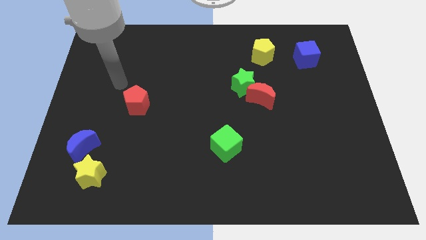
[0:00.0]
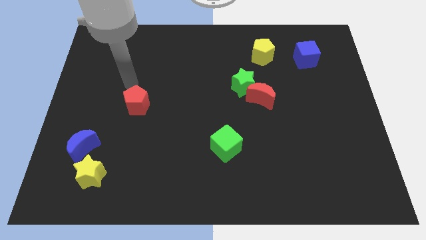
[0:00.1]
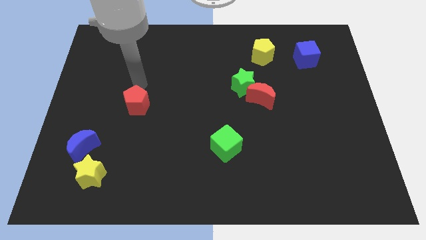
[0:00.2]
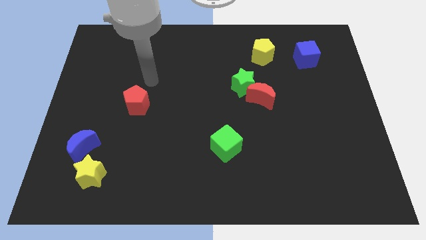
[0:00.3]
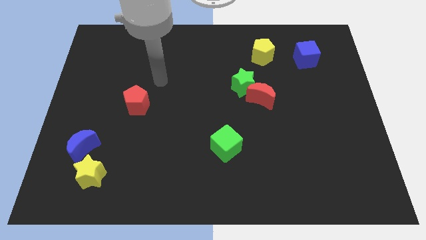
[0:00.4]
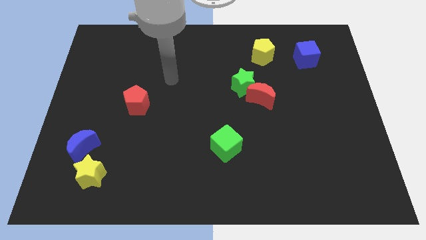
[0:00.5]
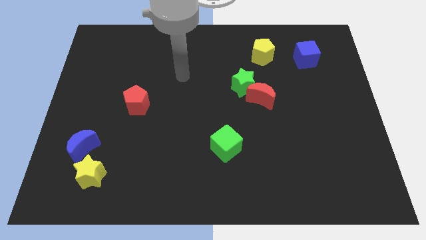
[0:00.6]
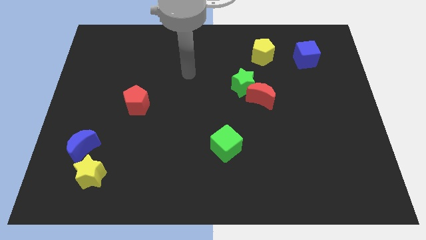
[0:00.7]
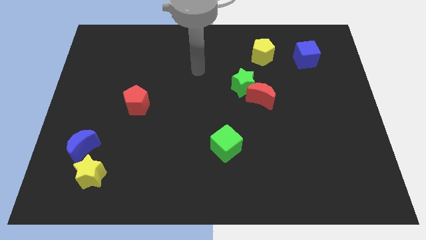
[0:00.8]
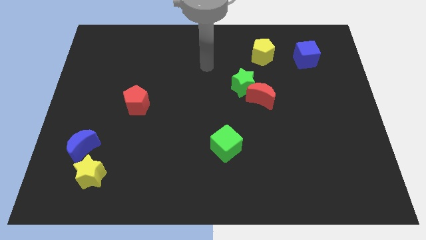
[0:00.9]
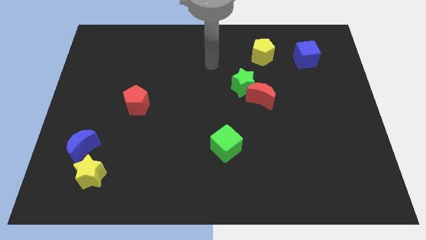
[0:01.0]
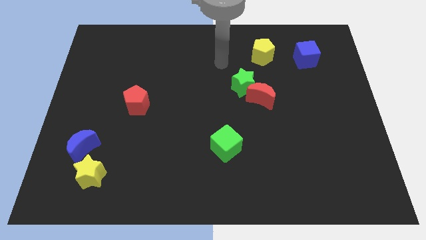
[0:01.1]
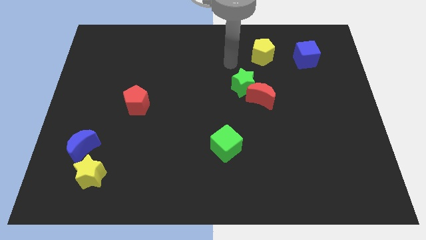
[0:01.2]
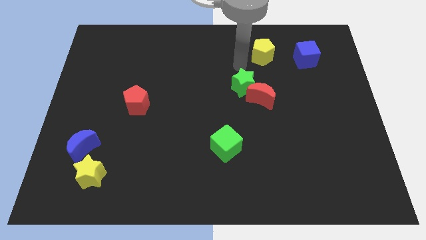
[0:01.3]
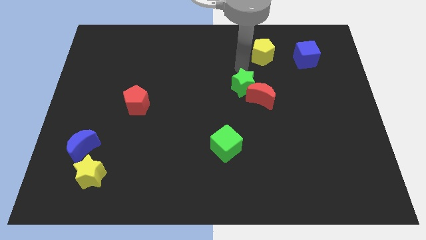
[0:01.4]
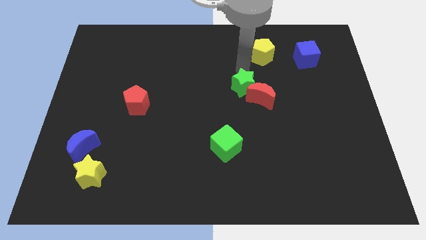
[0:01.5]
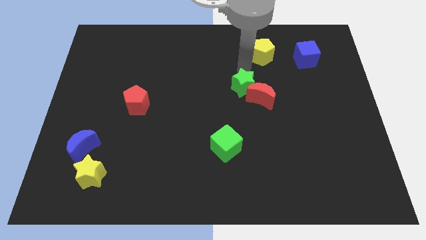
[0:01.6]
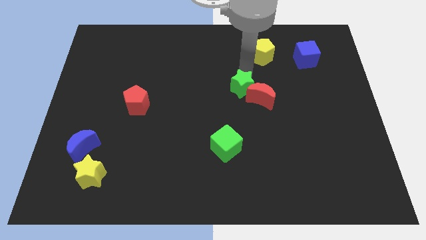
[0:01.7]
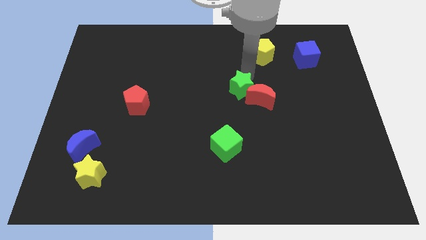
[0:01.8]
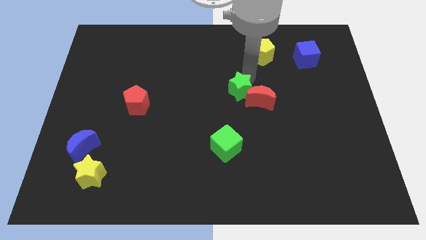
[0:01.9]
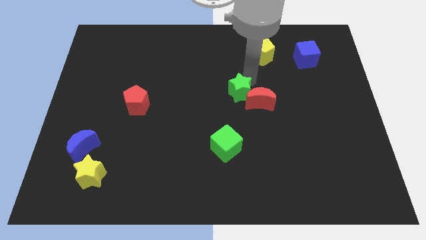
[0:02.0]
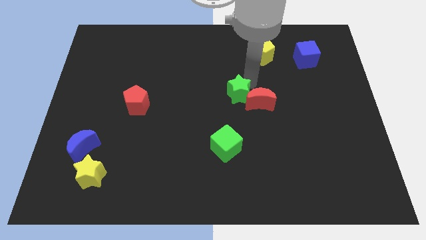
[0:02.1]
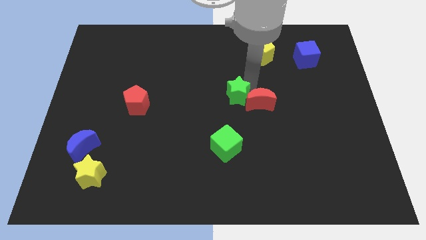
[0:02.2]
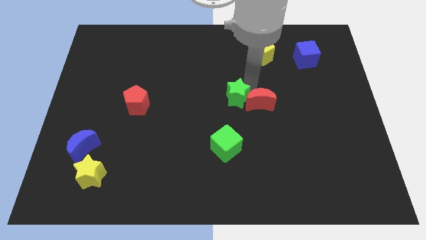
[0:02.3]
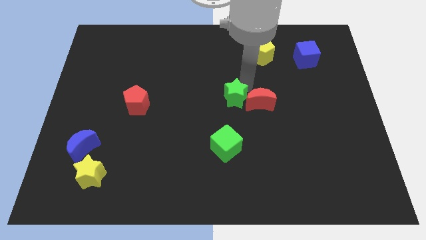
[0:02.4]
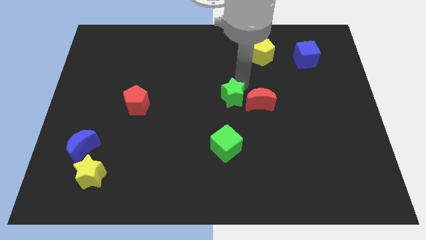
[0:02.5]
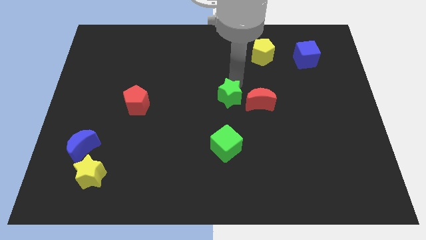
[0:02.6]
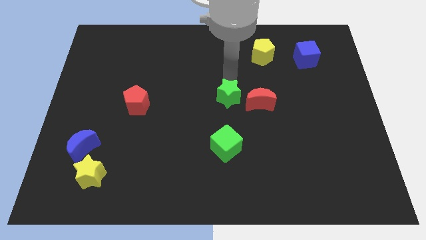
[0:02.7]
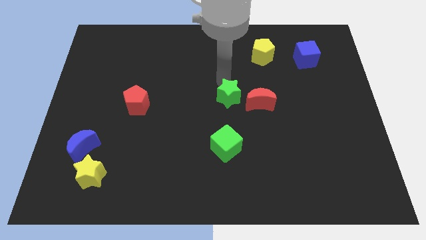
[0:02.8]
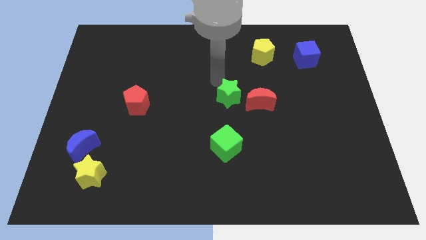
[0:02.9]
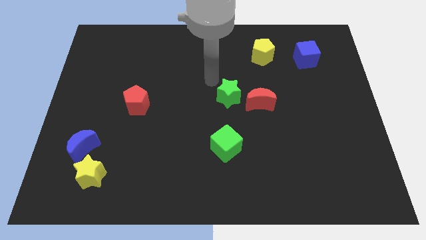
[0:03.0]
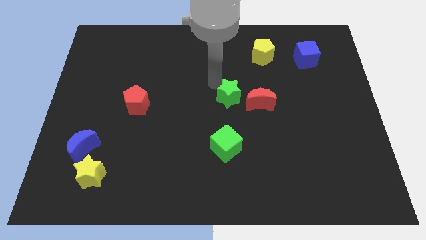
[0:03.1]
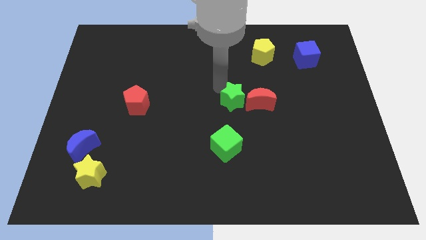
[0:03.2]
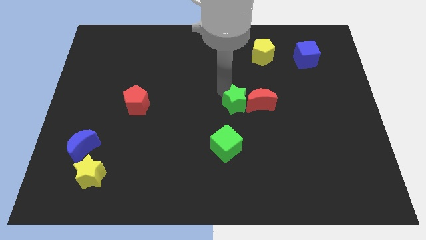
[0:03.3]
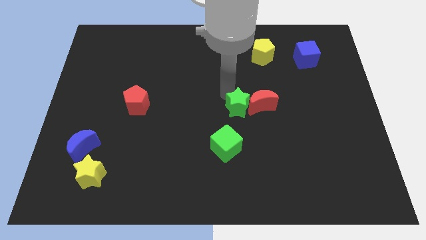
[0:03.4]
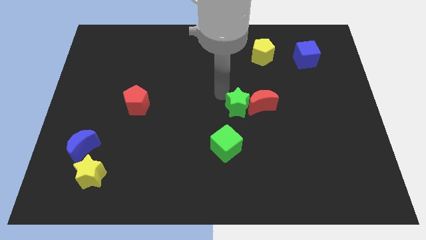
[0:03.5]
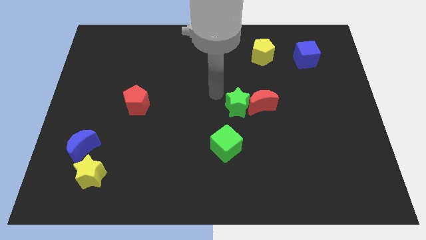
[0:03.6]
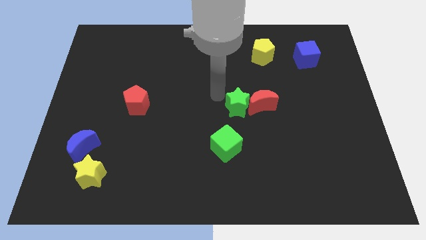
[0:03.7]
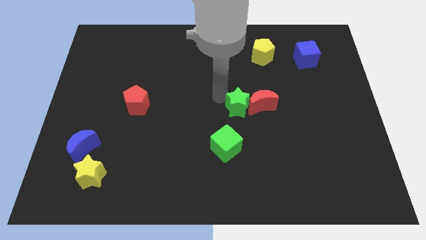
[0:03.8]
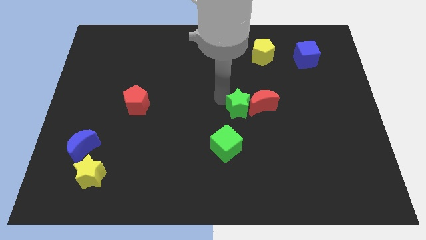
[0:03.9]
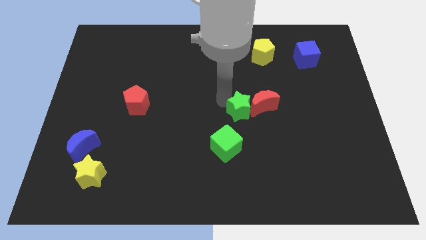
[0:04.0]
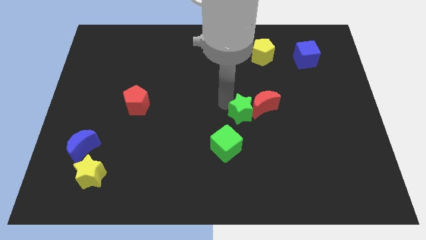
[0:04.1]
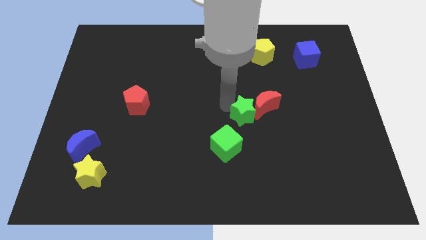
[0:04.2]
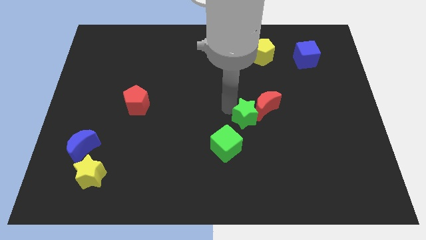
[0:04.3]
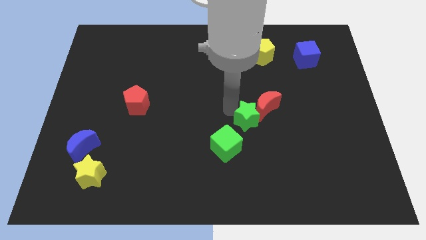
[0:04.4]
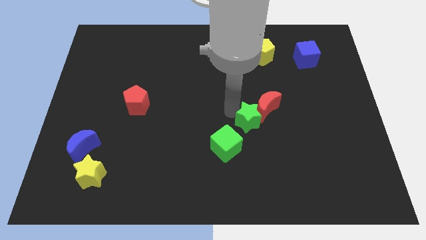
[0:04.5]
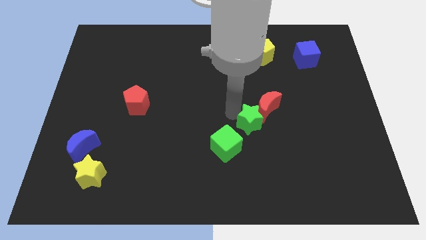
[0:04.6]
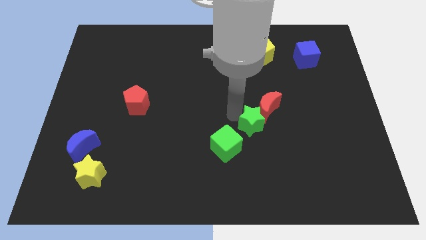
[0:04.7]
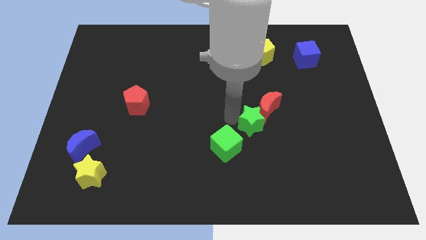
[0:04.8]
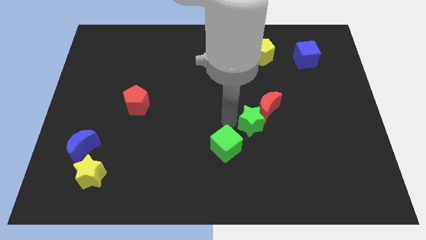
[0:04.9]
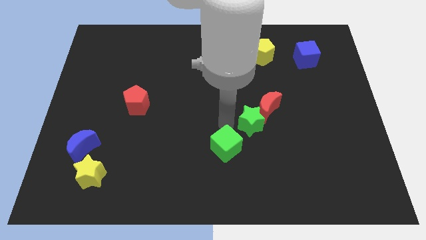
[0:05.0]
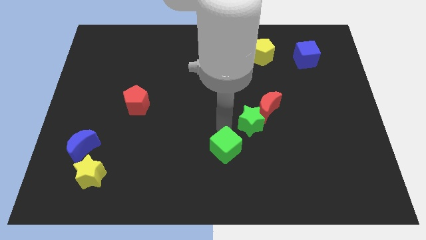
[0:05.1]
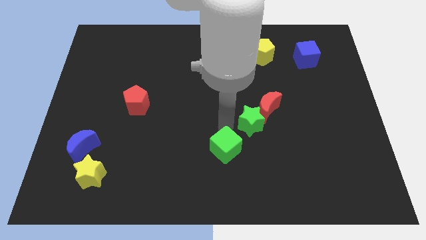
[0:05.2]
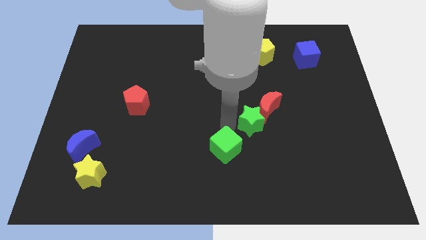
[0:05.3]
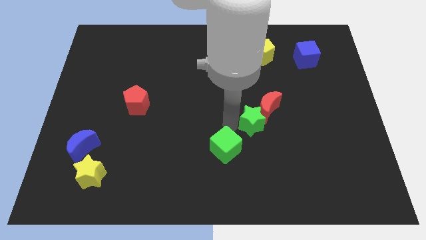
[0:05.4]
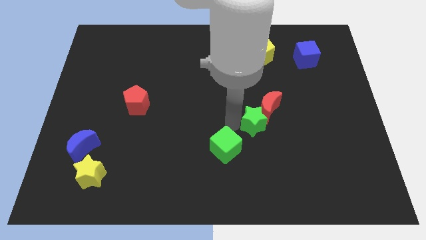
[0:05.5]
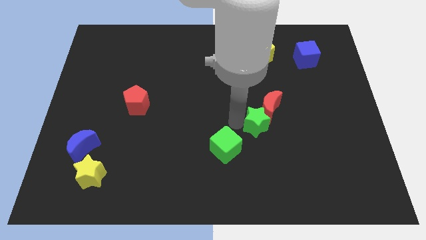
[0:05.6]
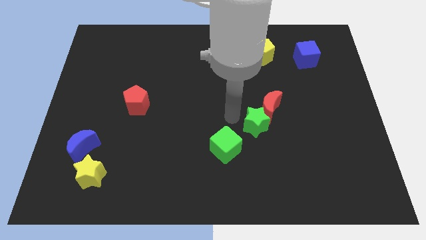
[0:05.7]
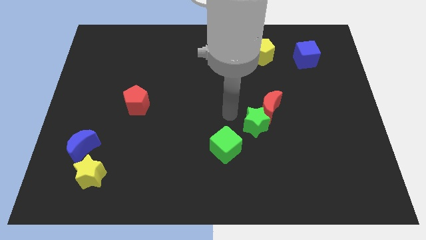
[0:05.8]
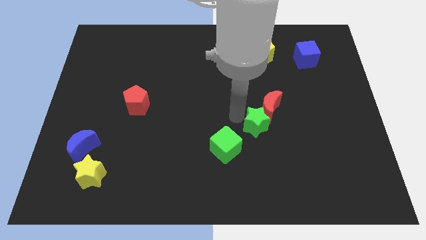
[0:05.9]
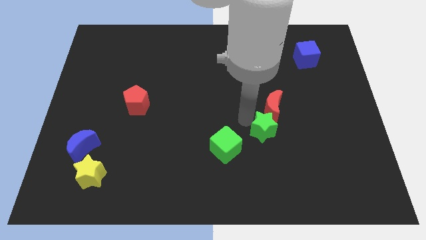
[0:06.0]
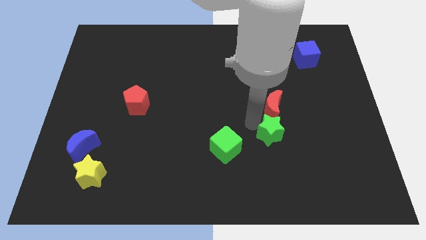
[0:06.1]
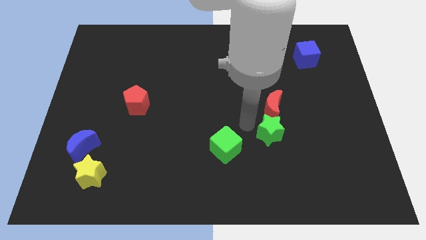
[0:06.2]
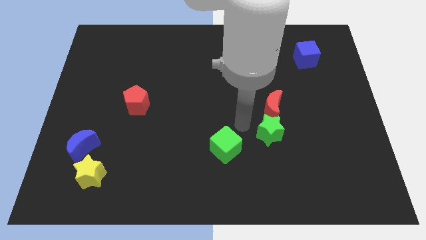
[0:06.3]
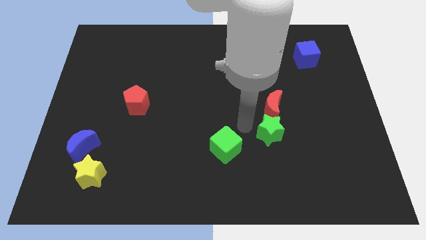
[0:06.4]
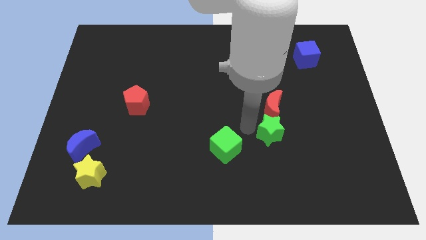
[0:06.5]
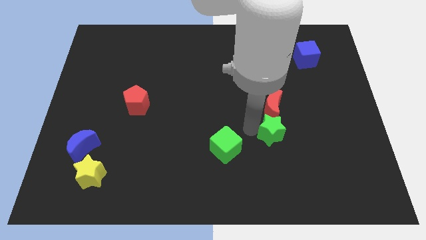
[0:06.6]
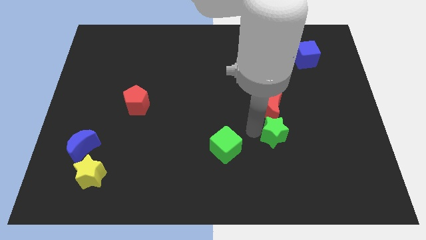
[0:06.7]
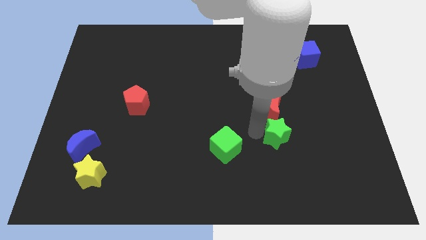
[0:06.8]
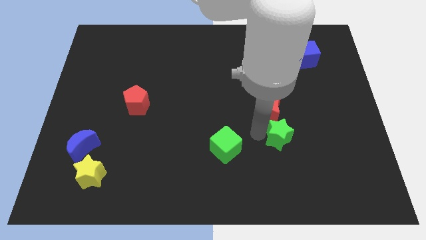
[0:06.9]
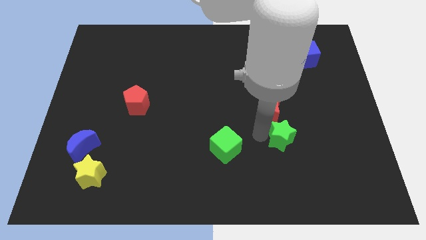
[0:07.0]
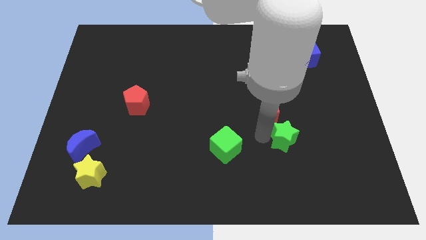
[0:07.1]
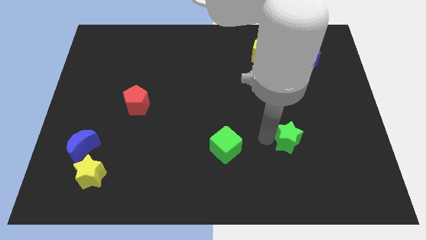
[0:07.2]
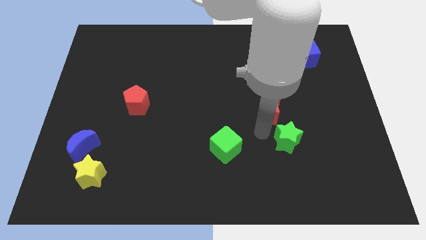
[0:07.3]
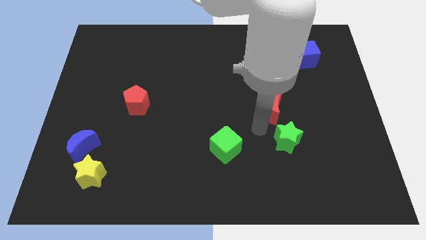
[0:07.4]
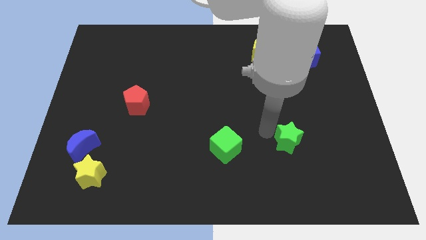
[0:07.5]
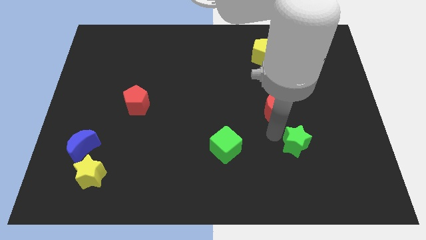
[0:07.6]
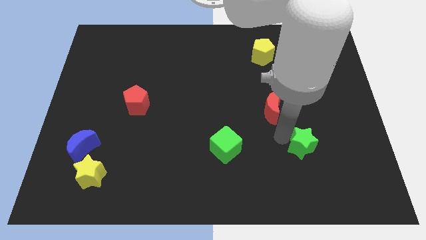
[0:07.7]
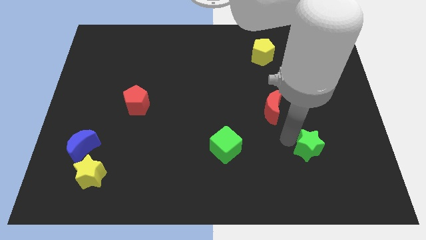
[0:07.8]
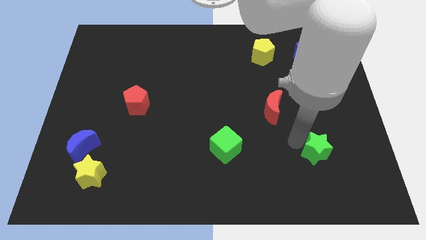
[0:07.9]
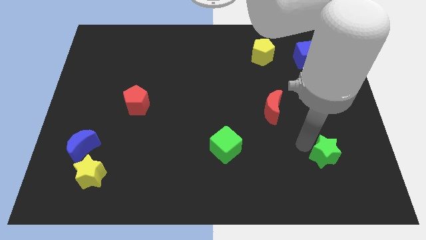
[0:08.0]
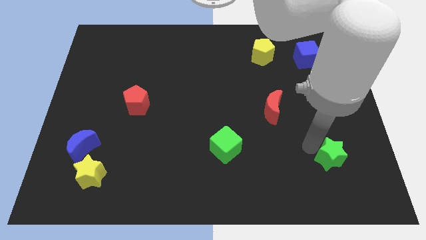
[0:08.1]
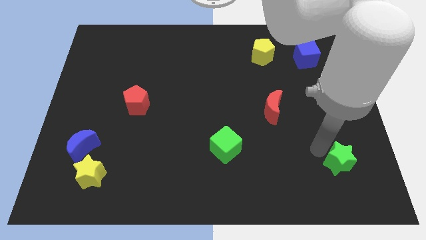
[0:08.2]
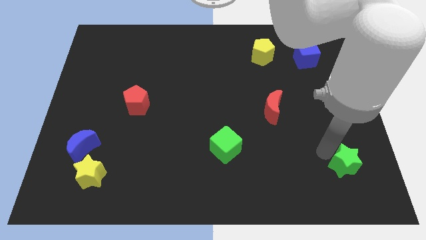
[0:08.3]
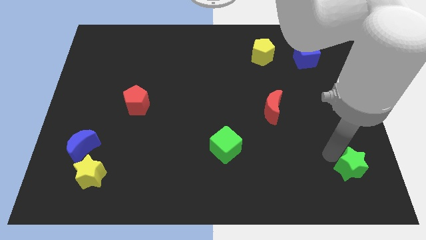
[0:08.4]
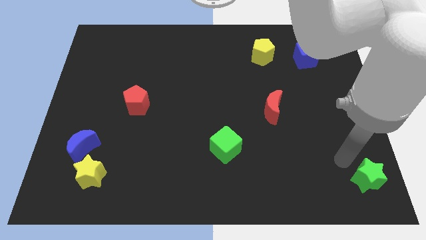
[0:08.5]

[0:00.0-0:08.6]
put the green star to the bottom right corner
